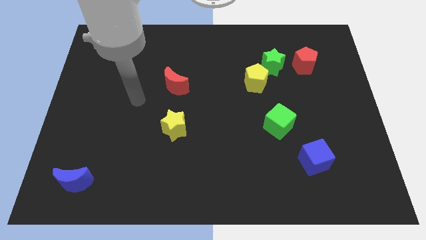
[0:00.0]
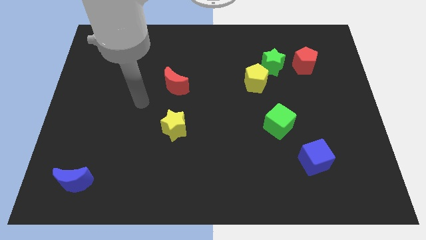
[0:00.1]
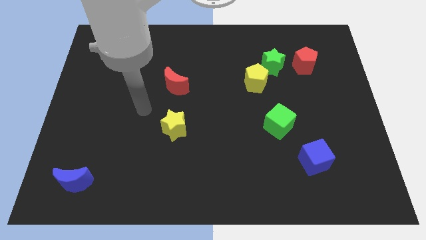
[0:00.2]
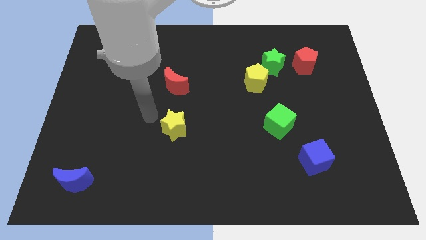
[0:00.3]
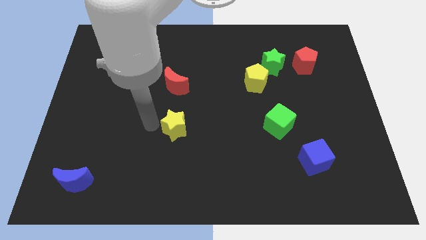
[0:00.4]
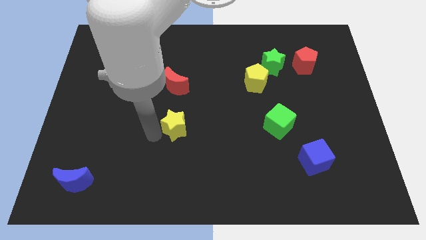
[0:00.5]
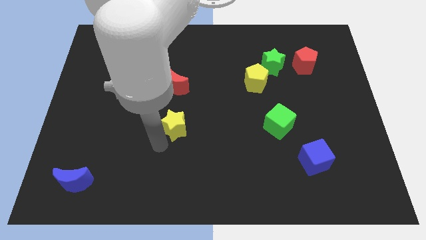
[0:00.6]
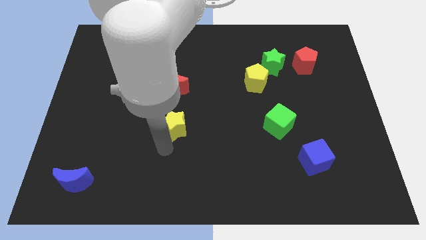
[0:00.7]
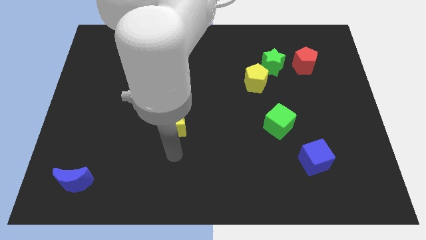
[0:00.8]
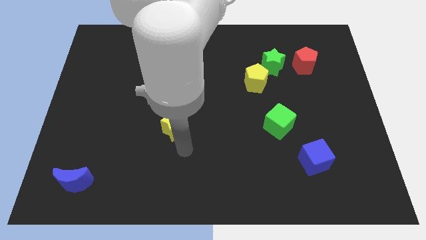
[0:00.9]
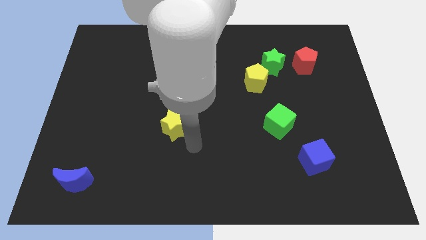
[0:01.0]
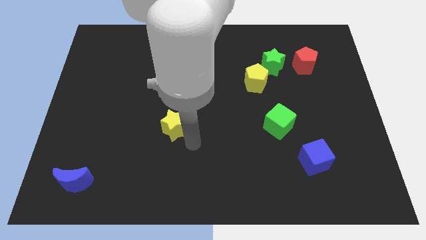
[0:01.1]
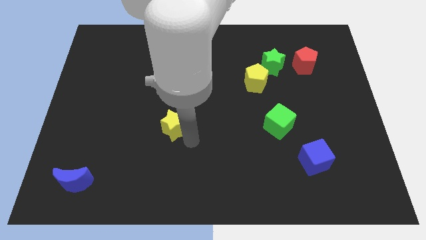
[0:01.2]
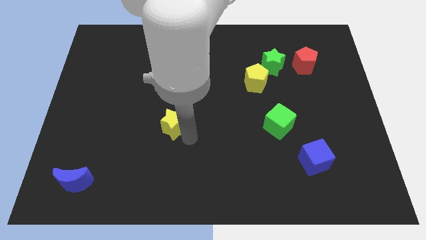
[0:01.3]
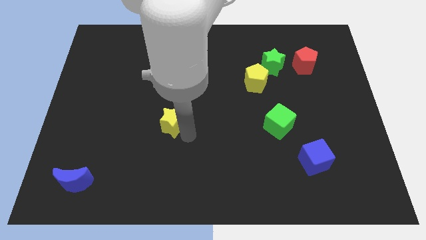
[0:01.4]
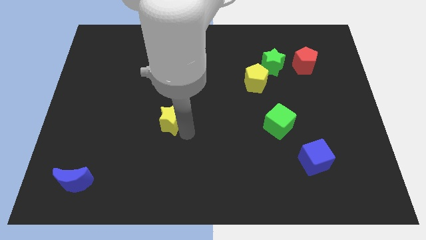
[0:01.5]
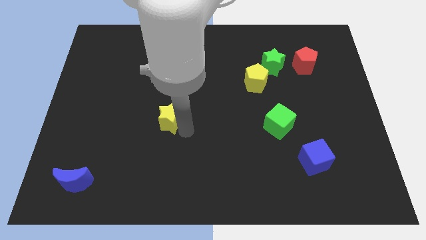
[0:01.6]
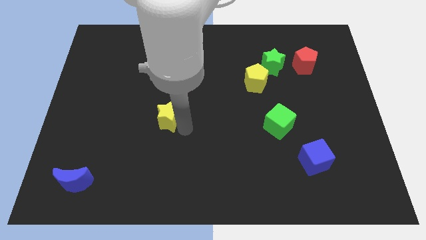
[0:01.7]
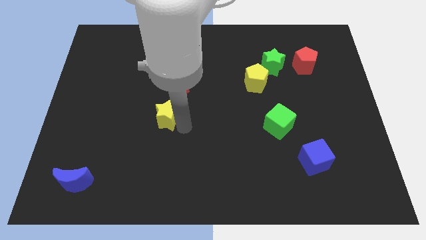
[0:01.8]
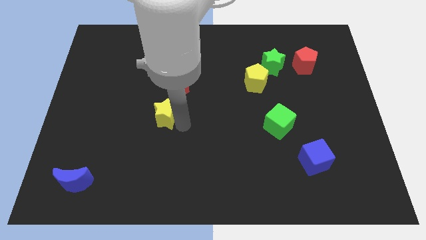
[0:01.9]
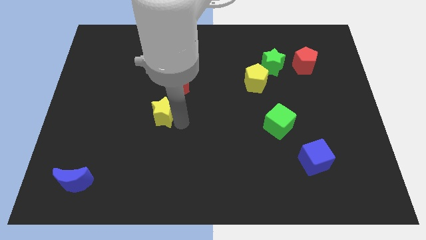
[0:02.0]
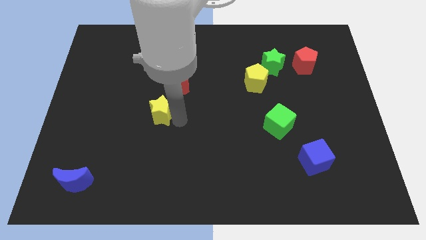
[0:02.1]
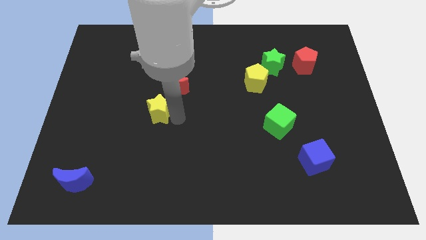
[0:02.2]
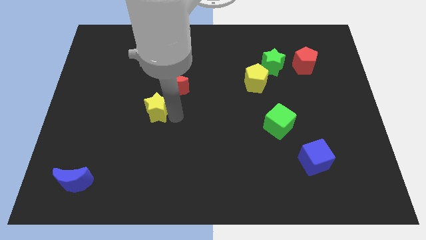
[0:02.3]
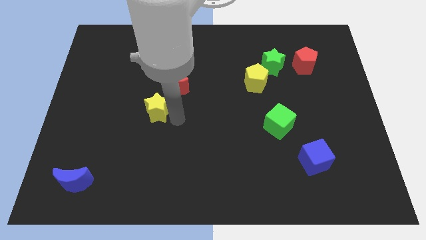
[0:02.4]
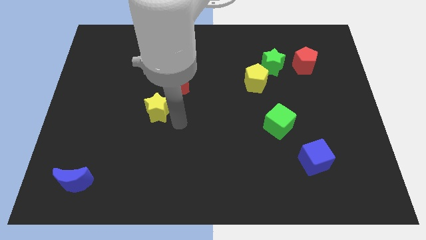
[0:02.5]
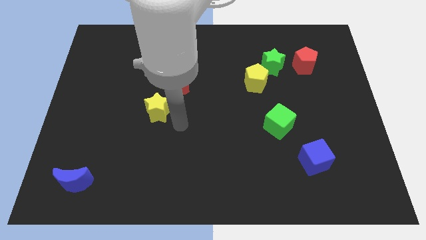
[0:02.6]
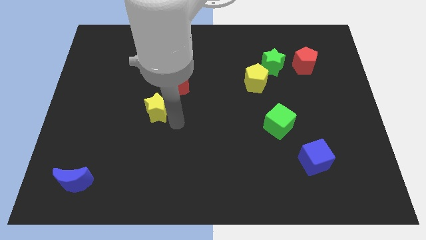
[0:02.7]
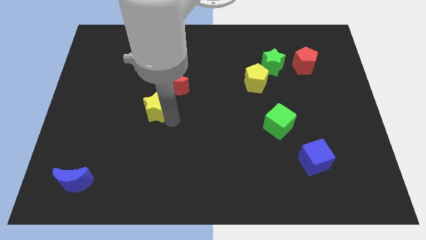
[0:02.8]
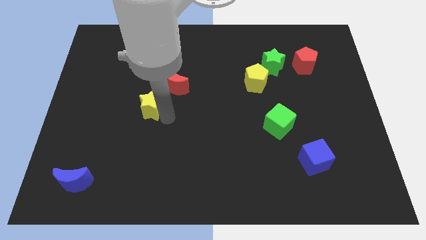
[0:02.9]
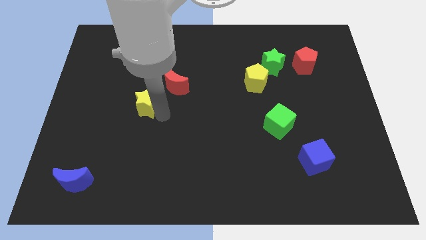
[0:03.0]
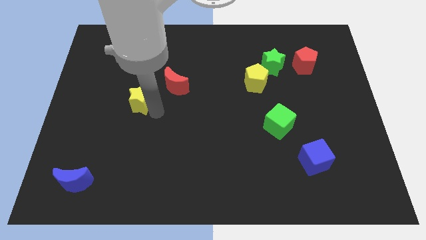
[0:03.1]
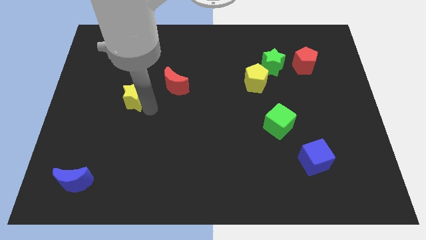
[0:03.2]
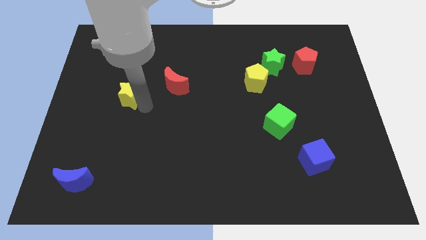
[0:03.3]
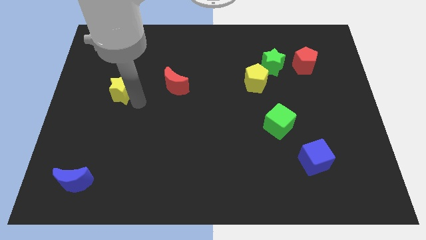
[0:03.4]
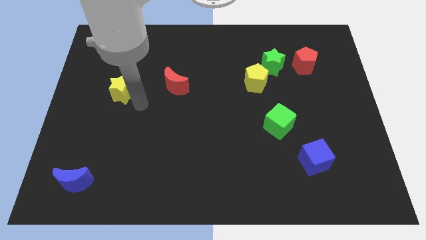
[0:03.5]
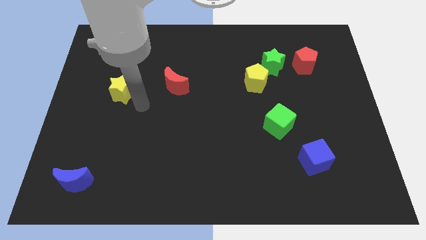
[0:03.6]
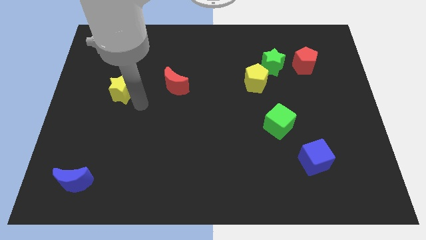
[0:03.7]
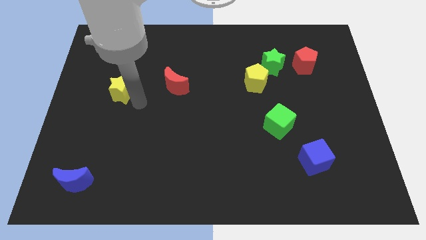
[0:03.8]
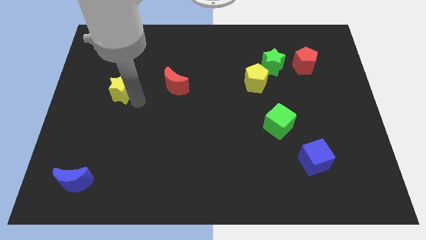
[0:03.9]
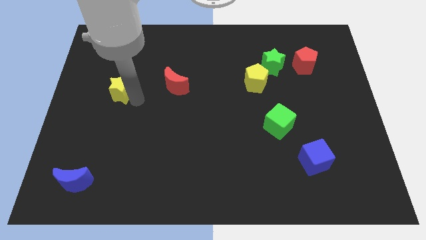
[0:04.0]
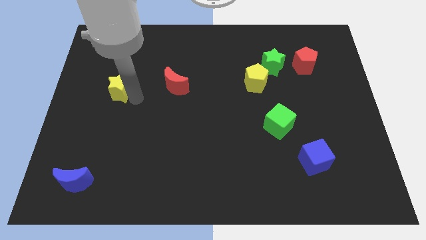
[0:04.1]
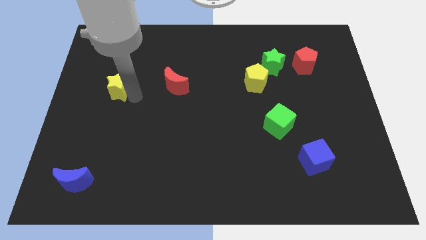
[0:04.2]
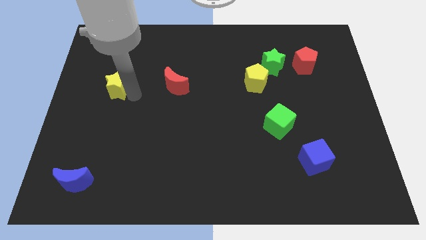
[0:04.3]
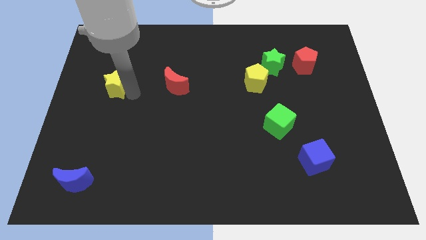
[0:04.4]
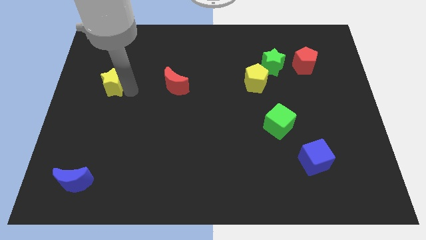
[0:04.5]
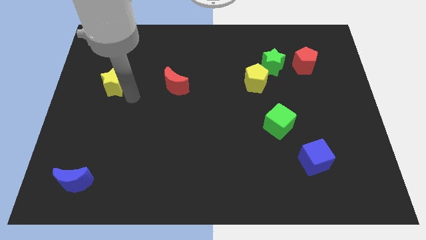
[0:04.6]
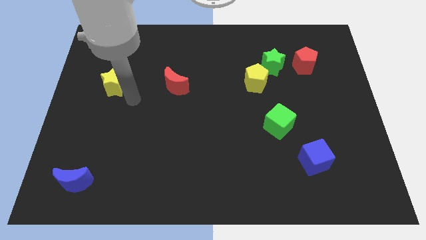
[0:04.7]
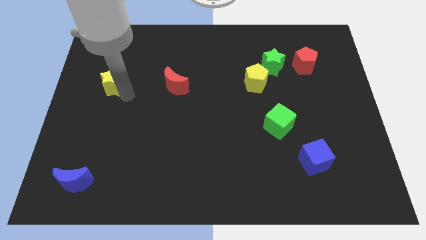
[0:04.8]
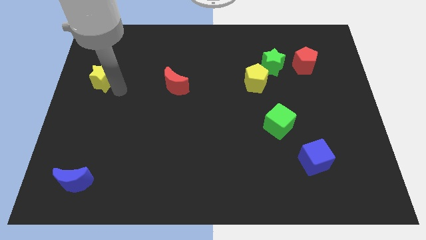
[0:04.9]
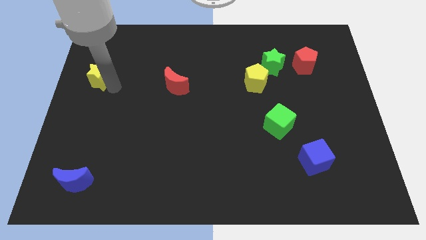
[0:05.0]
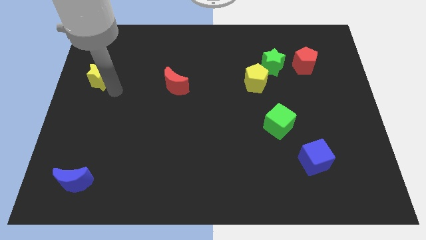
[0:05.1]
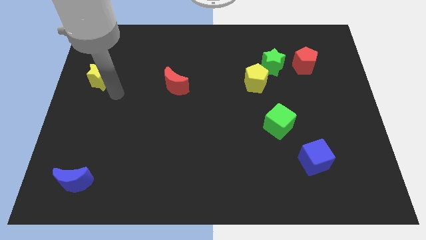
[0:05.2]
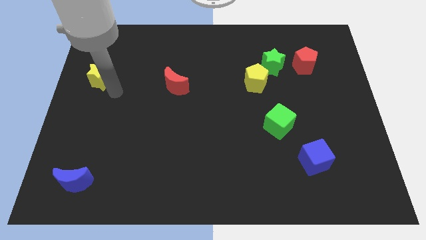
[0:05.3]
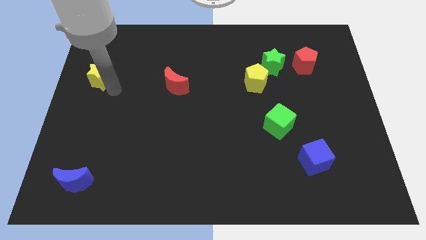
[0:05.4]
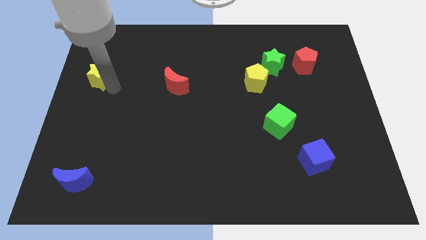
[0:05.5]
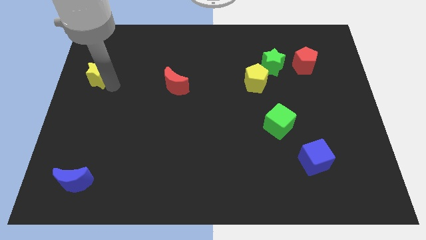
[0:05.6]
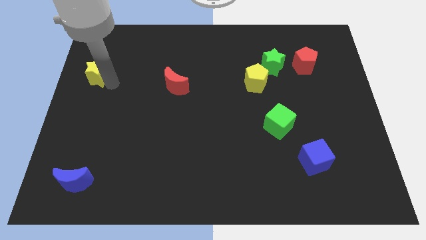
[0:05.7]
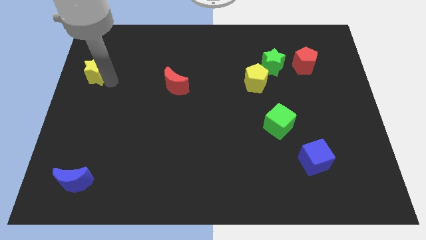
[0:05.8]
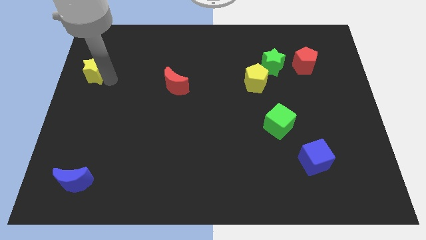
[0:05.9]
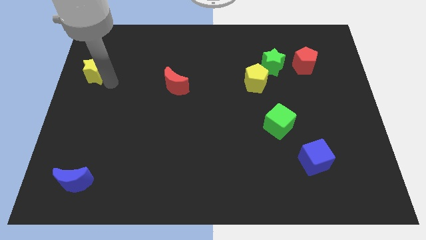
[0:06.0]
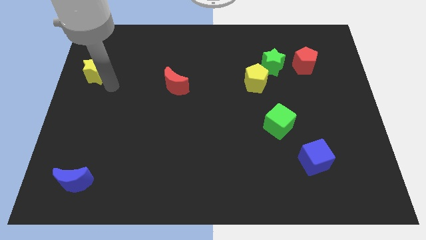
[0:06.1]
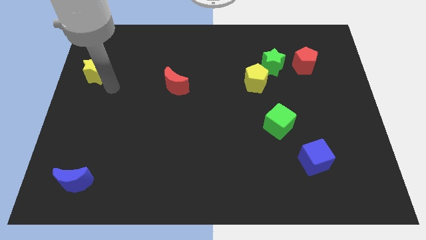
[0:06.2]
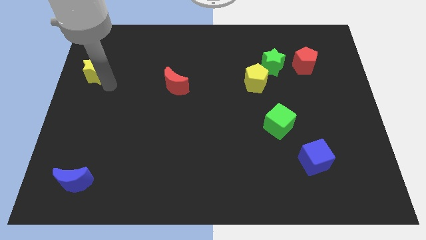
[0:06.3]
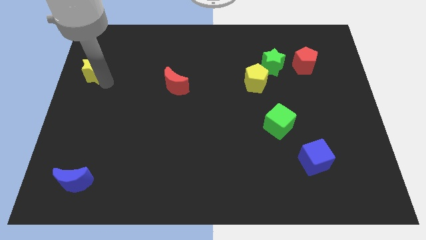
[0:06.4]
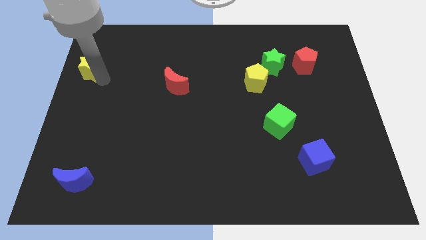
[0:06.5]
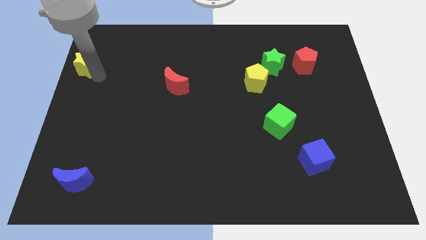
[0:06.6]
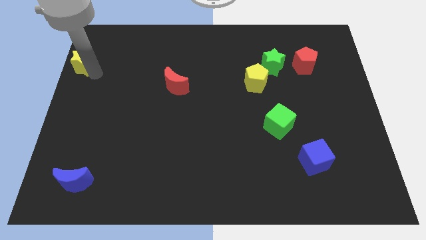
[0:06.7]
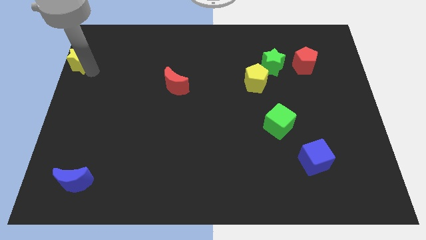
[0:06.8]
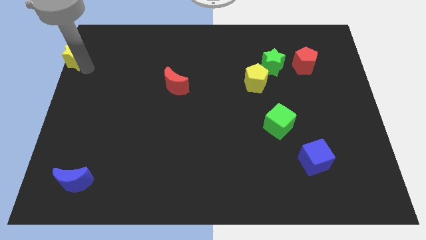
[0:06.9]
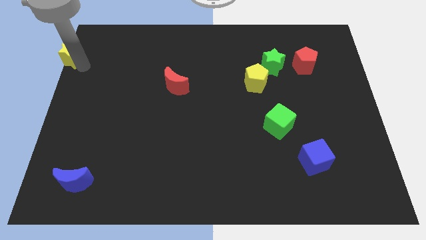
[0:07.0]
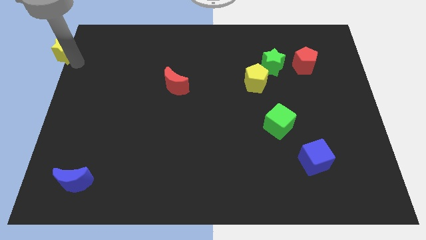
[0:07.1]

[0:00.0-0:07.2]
slide the yellow star to the top left corner
